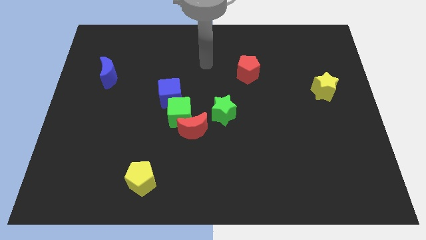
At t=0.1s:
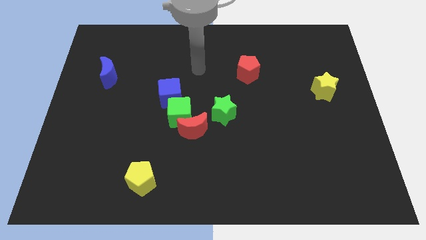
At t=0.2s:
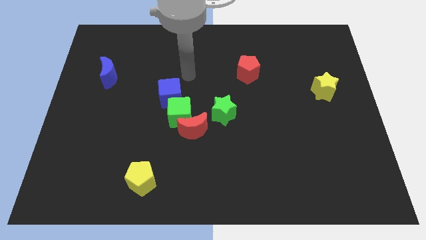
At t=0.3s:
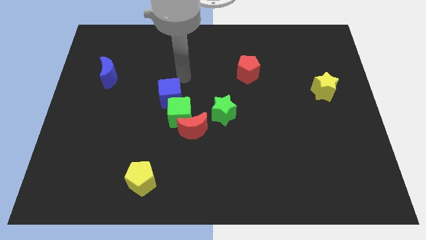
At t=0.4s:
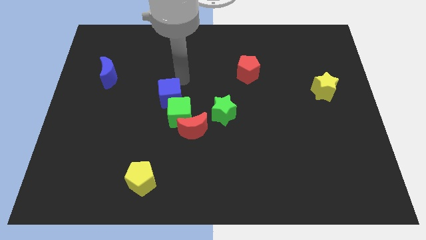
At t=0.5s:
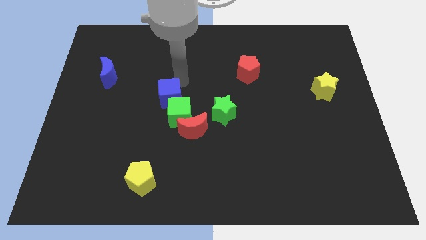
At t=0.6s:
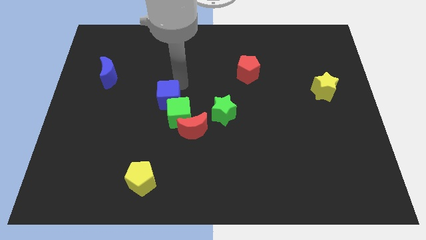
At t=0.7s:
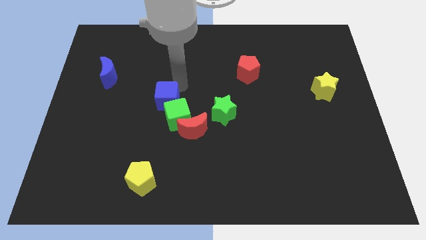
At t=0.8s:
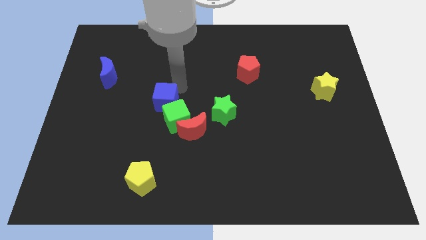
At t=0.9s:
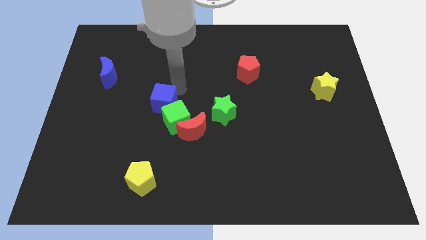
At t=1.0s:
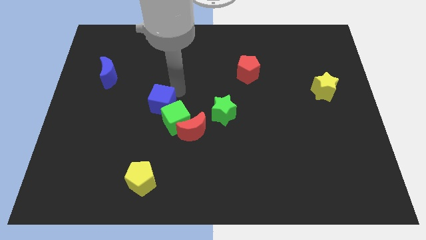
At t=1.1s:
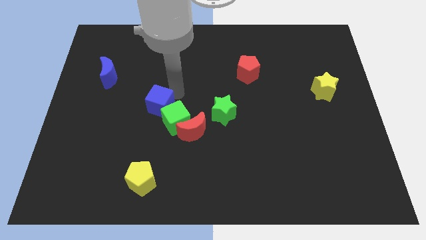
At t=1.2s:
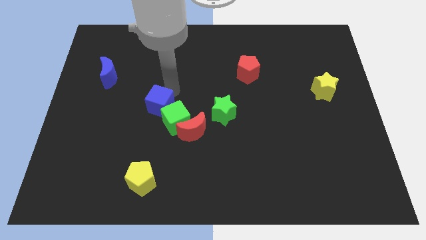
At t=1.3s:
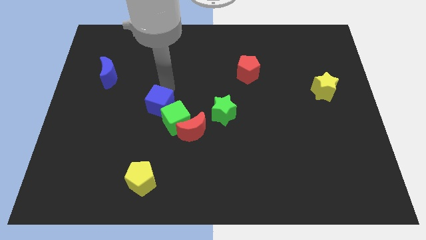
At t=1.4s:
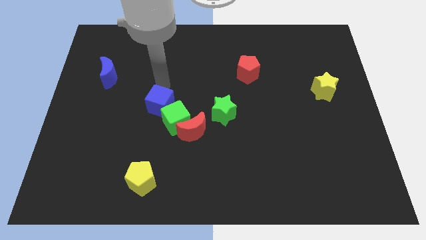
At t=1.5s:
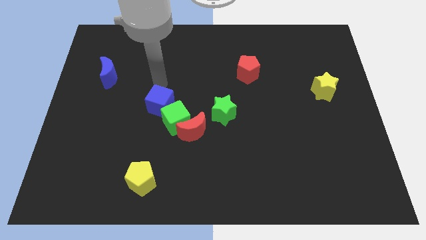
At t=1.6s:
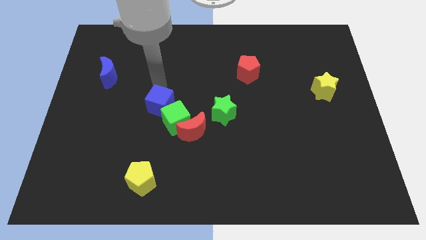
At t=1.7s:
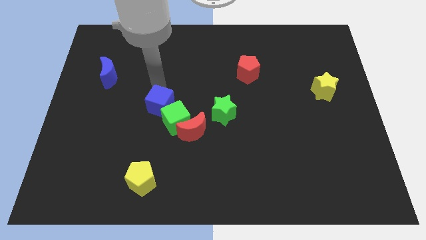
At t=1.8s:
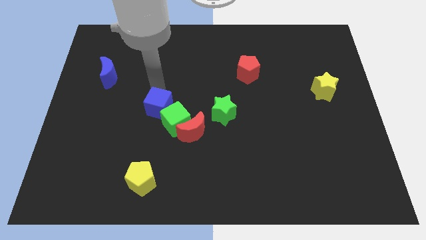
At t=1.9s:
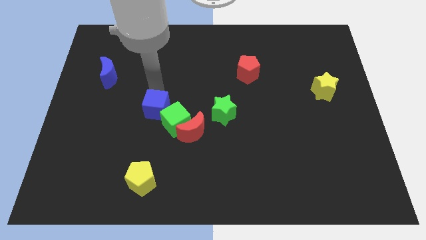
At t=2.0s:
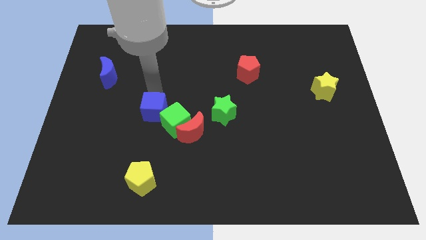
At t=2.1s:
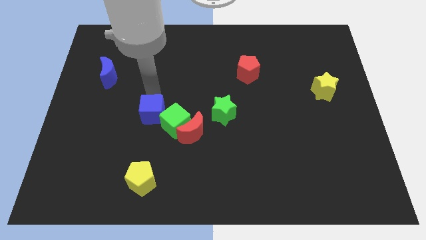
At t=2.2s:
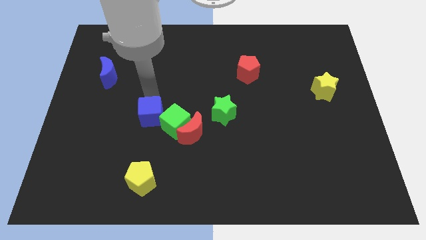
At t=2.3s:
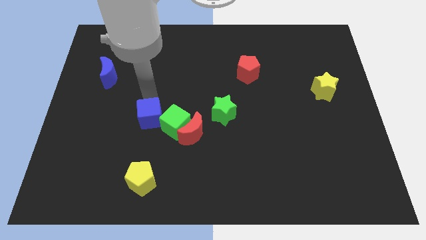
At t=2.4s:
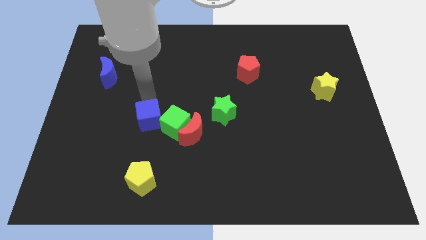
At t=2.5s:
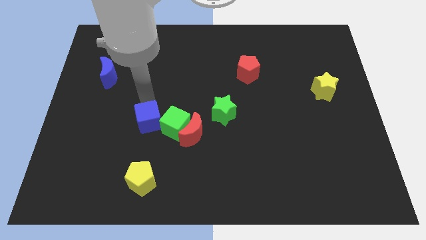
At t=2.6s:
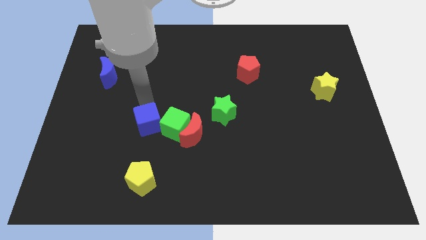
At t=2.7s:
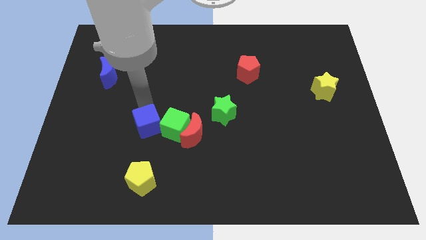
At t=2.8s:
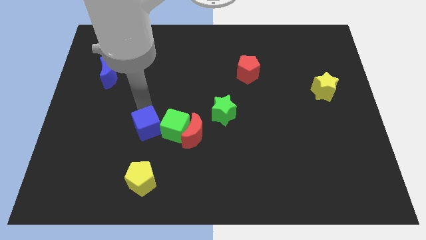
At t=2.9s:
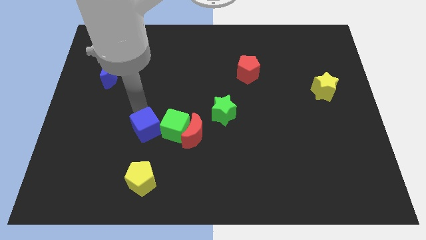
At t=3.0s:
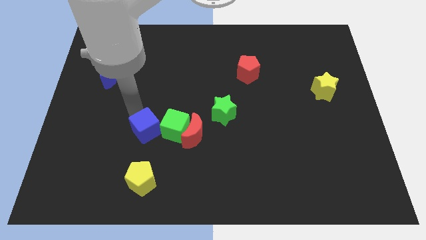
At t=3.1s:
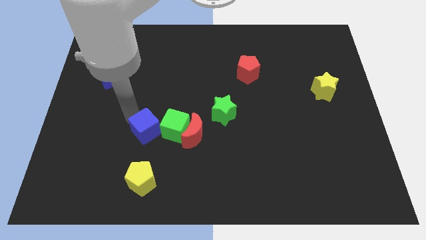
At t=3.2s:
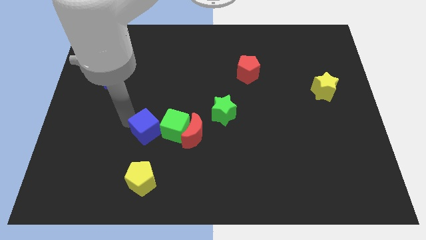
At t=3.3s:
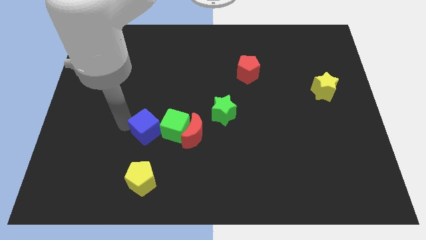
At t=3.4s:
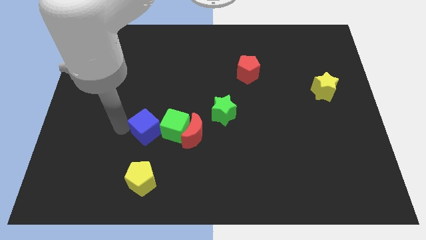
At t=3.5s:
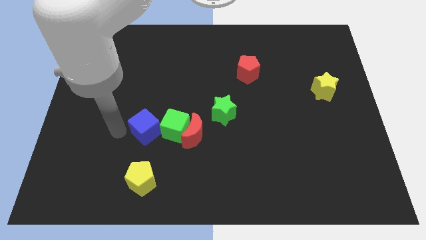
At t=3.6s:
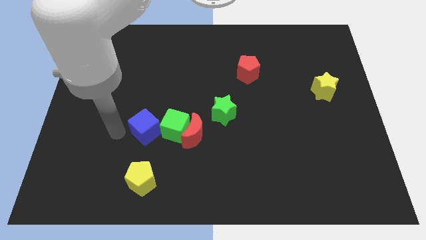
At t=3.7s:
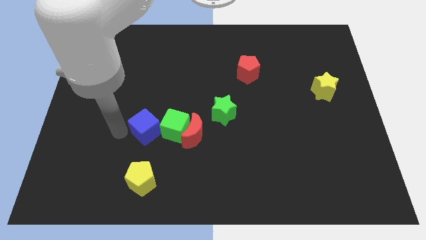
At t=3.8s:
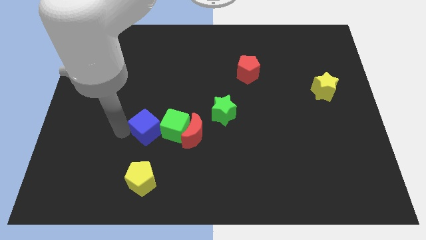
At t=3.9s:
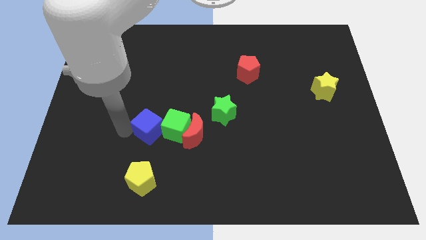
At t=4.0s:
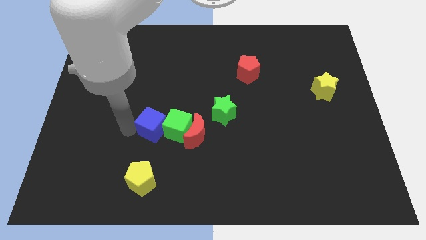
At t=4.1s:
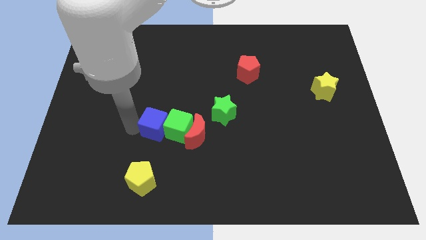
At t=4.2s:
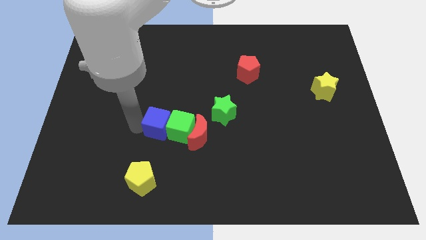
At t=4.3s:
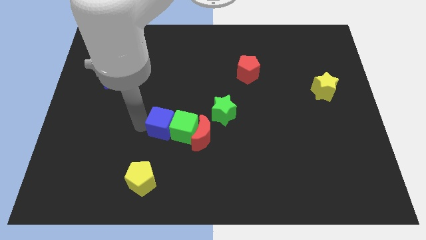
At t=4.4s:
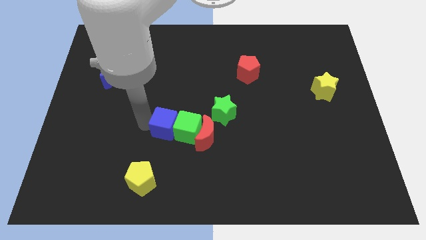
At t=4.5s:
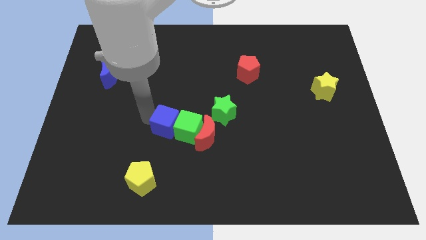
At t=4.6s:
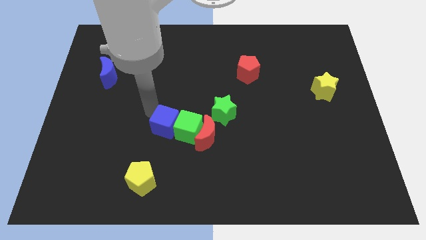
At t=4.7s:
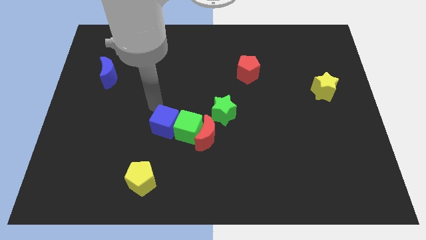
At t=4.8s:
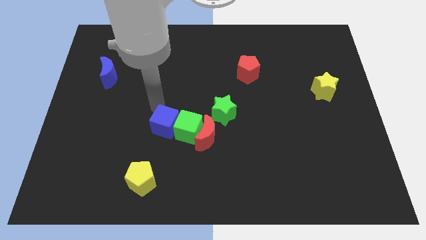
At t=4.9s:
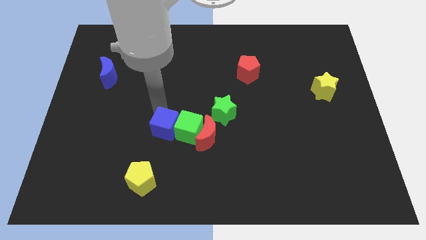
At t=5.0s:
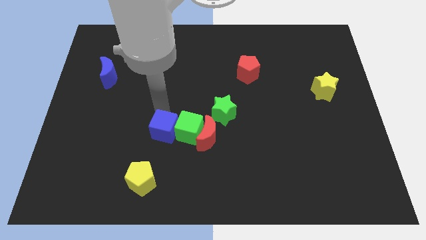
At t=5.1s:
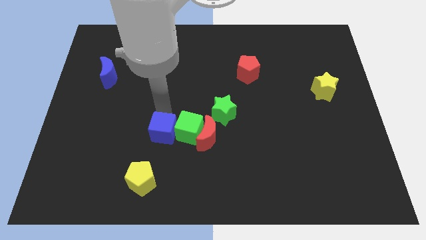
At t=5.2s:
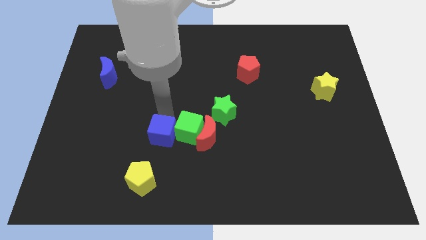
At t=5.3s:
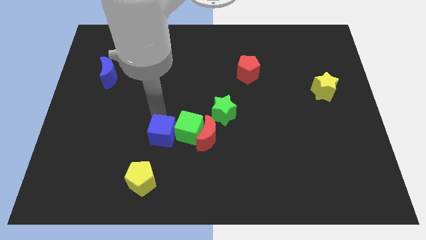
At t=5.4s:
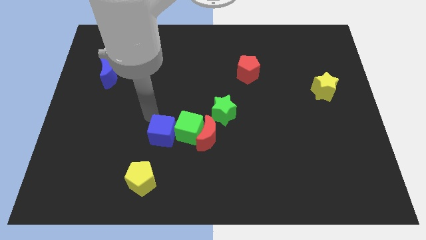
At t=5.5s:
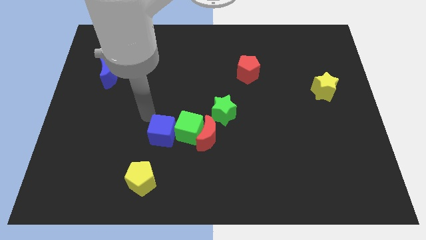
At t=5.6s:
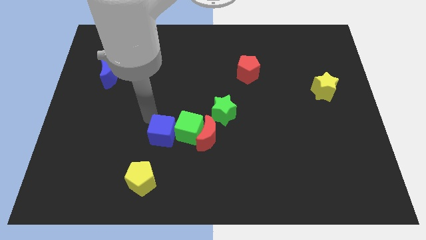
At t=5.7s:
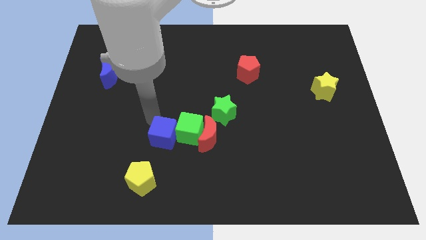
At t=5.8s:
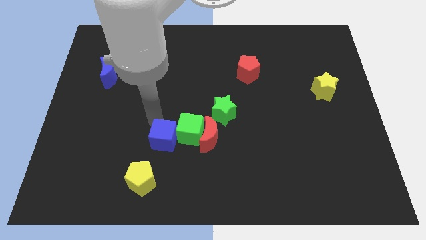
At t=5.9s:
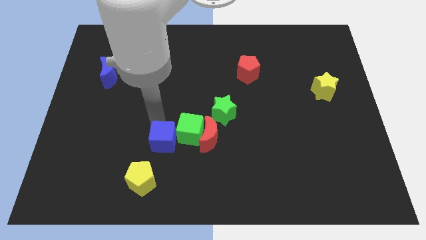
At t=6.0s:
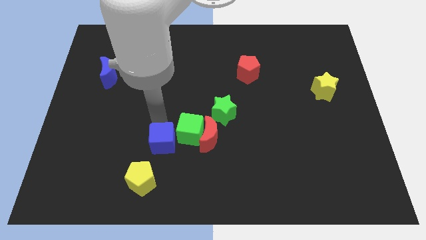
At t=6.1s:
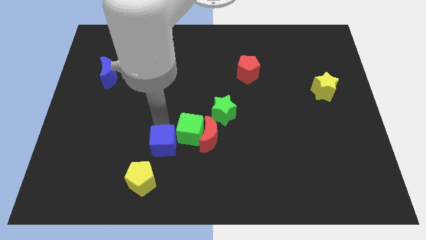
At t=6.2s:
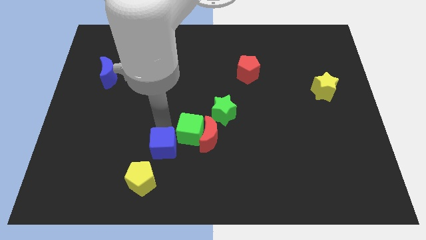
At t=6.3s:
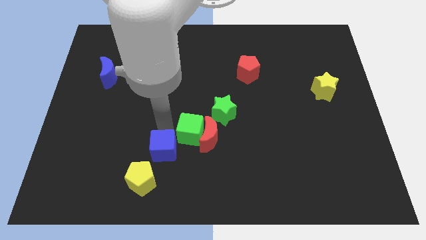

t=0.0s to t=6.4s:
move the blue cube diagonally down and to the left of the red moon

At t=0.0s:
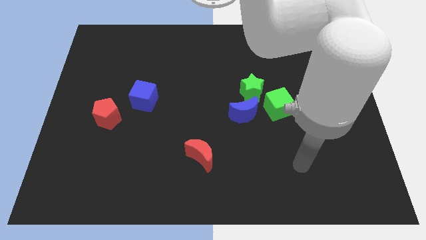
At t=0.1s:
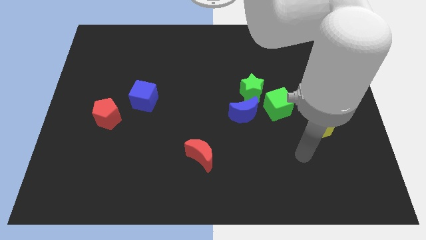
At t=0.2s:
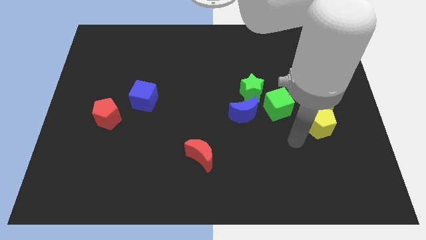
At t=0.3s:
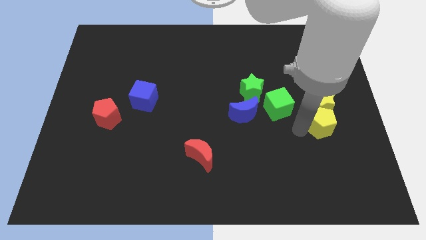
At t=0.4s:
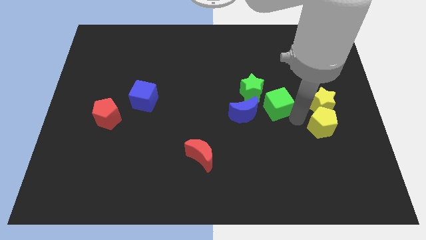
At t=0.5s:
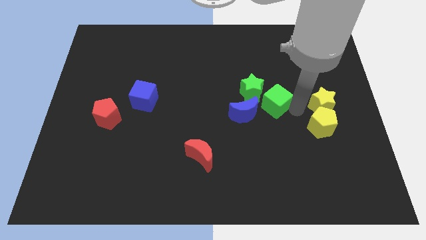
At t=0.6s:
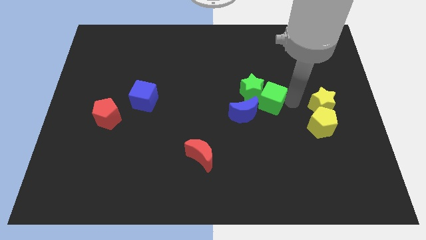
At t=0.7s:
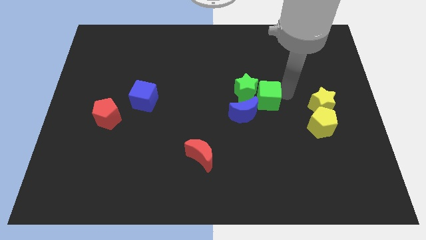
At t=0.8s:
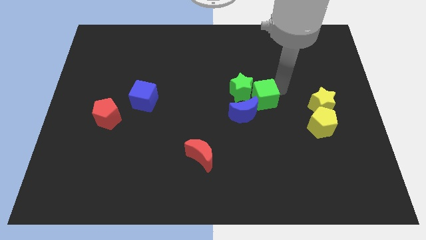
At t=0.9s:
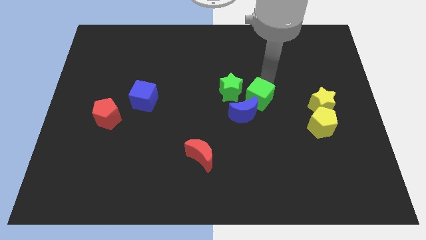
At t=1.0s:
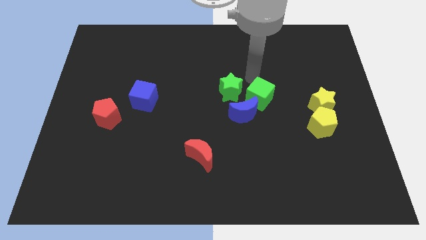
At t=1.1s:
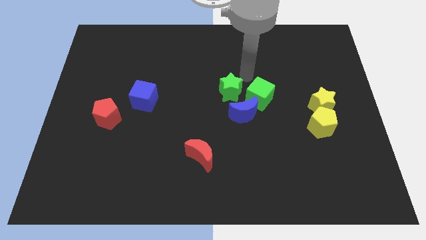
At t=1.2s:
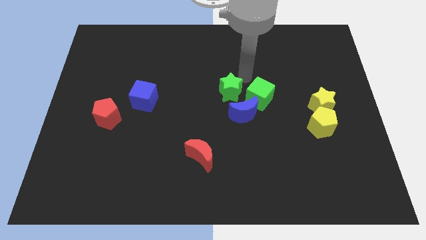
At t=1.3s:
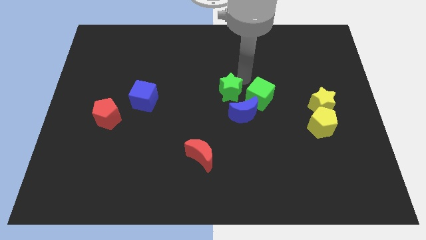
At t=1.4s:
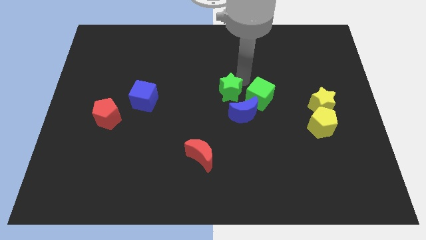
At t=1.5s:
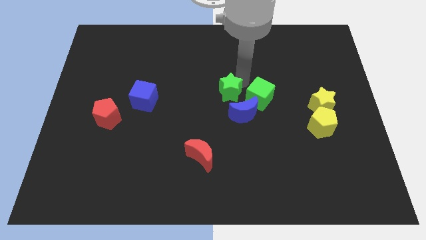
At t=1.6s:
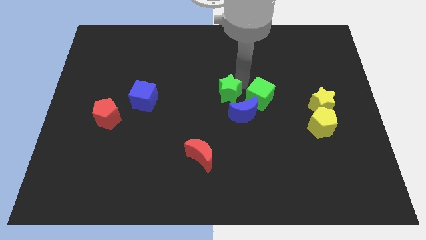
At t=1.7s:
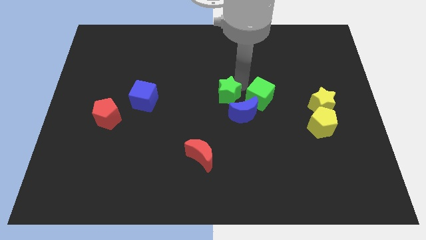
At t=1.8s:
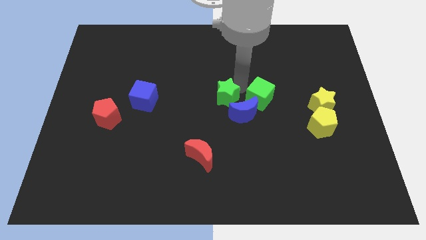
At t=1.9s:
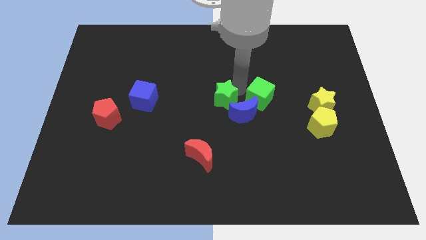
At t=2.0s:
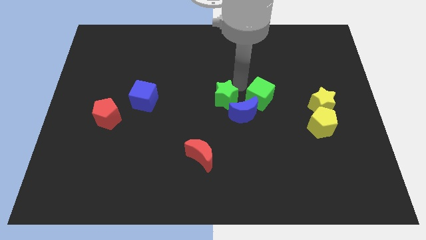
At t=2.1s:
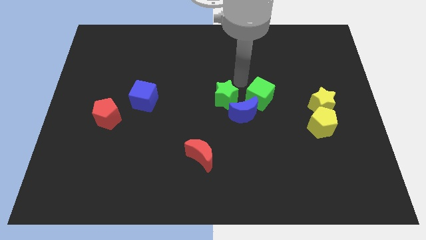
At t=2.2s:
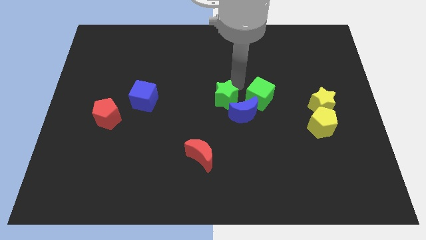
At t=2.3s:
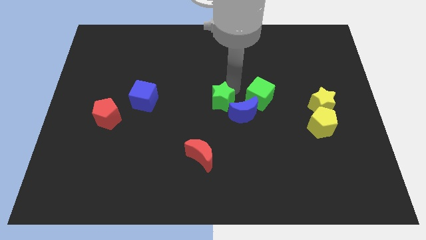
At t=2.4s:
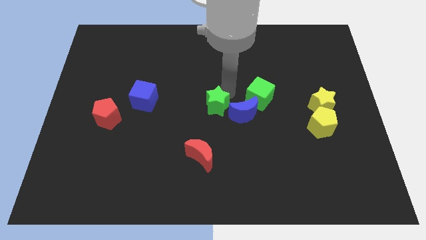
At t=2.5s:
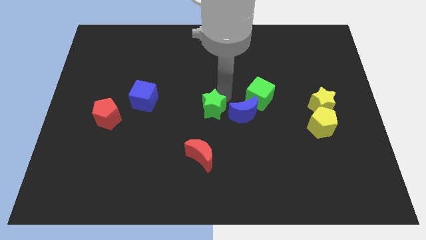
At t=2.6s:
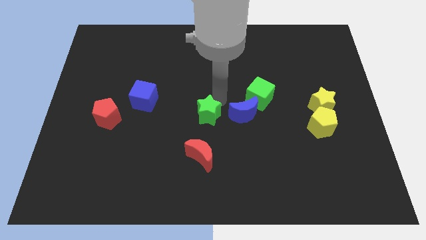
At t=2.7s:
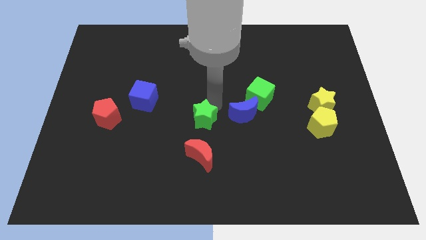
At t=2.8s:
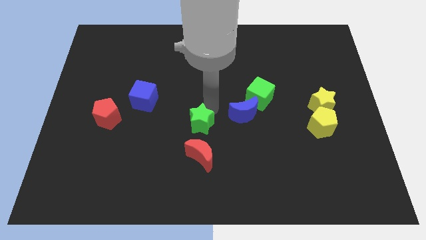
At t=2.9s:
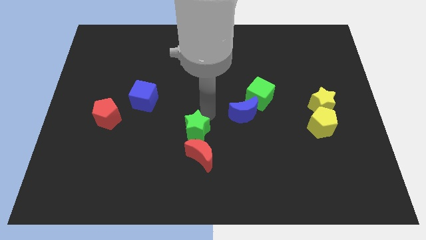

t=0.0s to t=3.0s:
slide the green star diagonally up and to the left of the red moon
